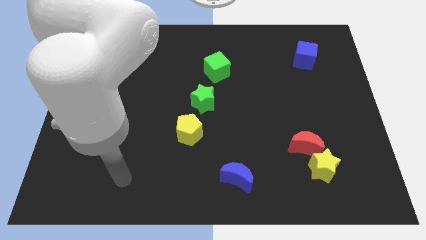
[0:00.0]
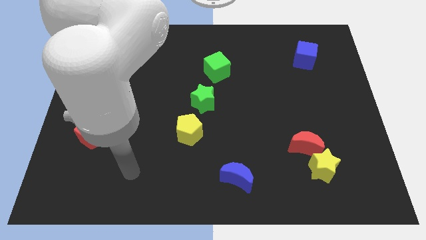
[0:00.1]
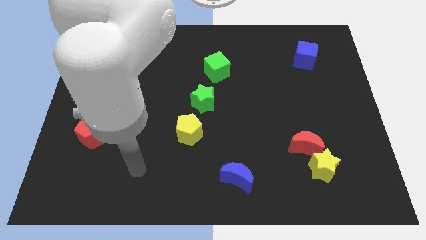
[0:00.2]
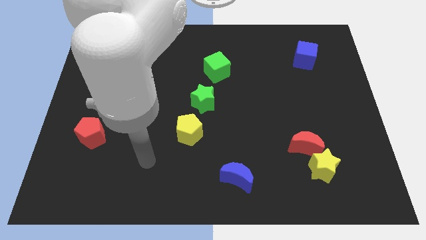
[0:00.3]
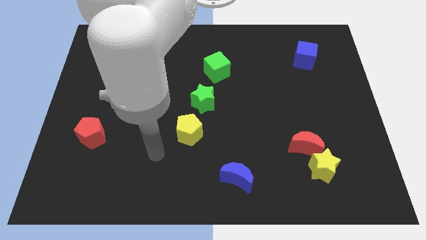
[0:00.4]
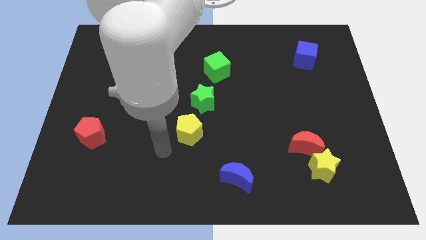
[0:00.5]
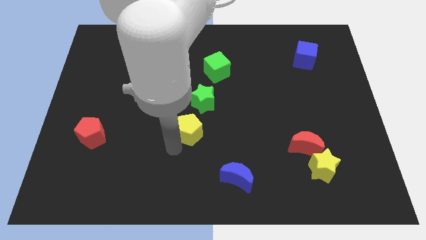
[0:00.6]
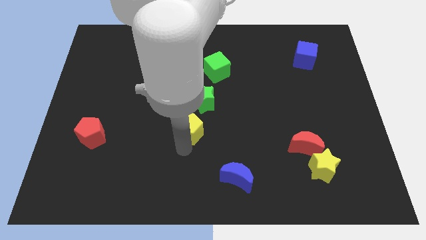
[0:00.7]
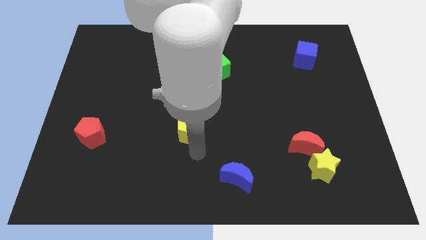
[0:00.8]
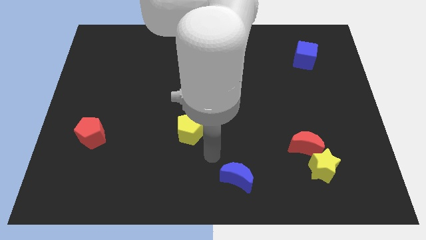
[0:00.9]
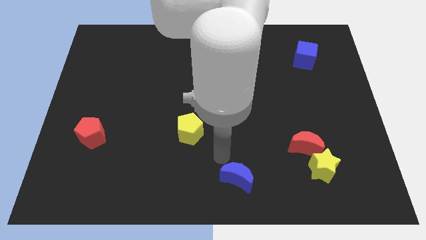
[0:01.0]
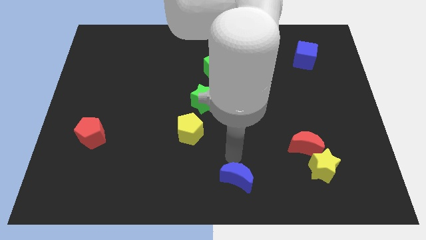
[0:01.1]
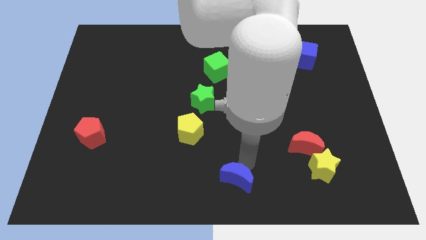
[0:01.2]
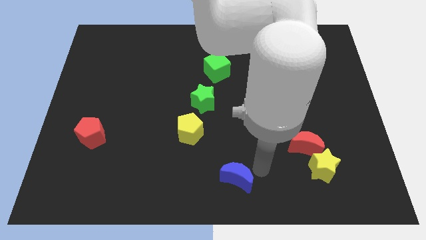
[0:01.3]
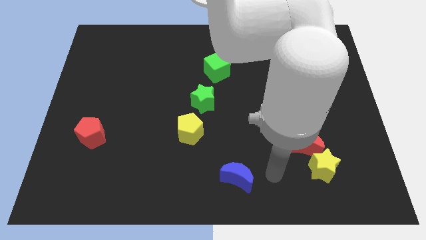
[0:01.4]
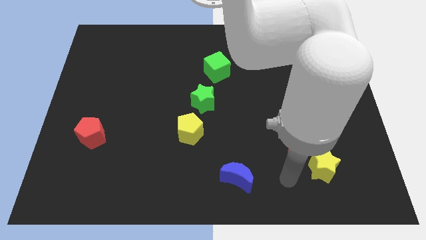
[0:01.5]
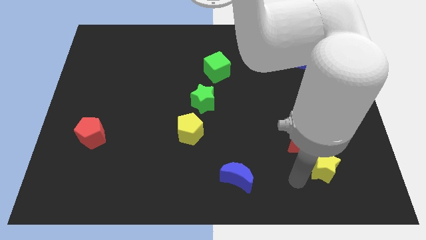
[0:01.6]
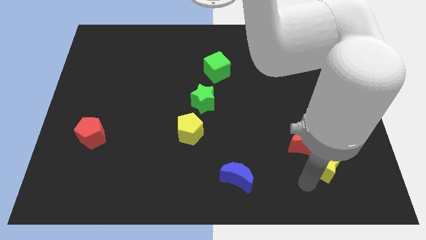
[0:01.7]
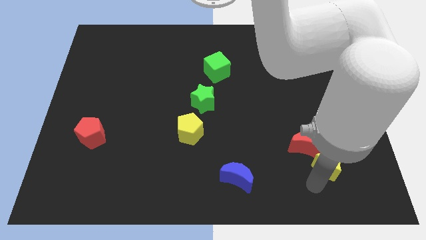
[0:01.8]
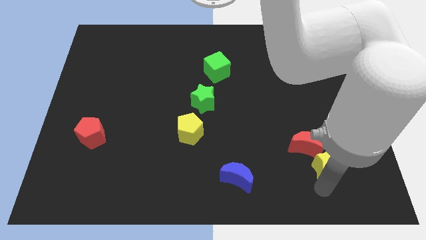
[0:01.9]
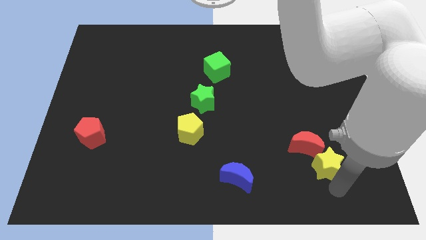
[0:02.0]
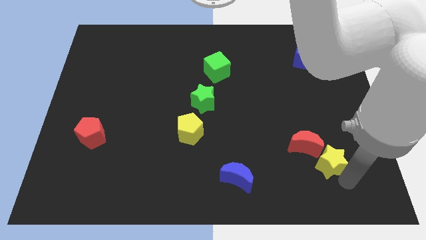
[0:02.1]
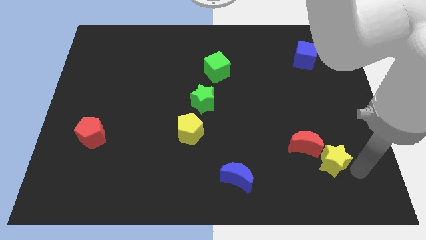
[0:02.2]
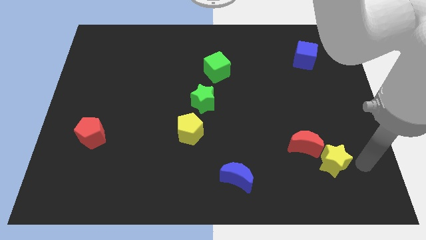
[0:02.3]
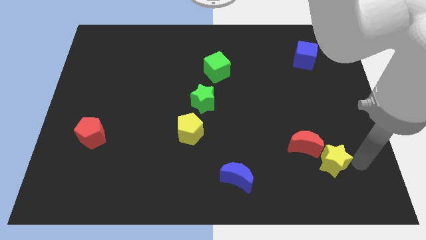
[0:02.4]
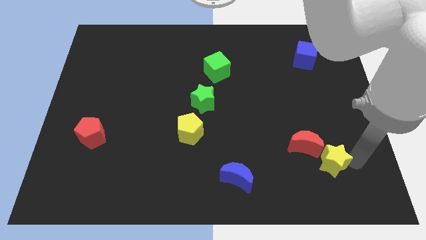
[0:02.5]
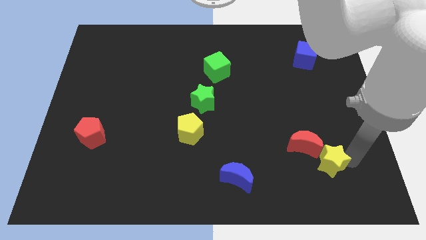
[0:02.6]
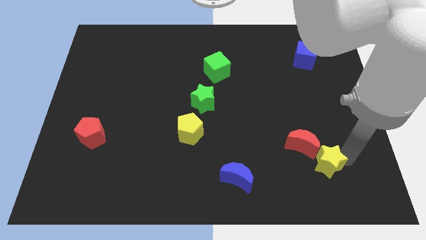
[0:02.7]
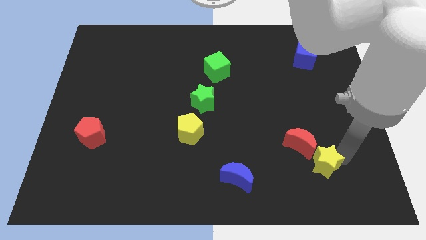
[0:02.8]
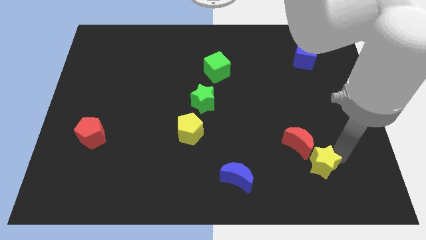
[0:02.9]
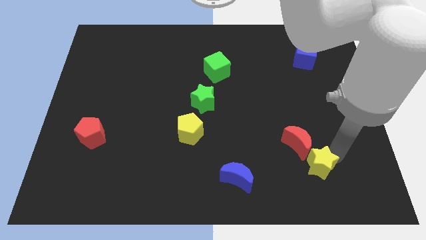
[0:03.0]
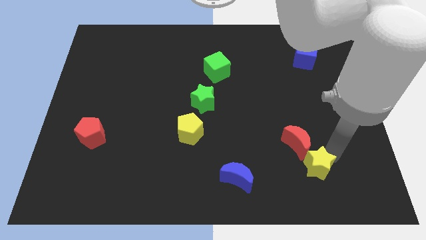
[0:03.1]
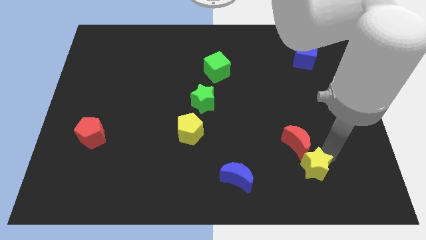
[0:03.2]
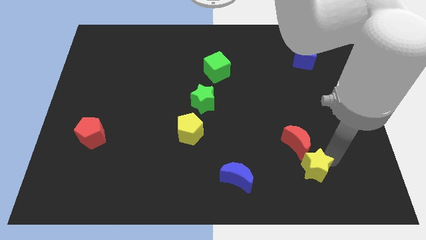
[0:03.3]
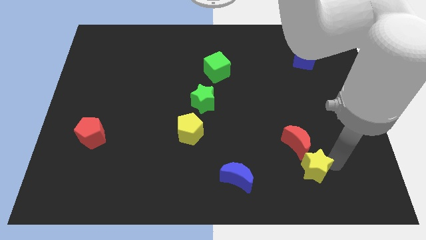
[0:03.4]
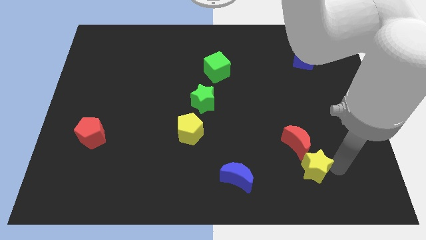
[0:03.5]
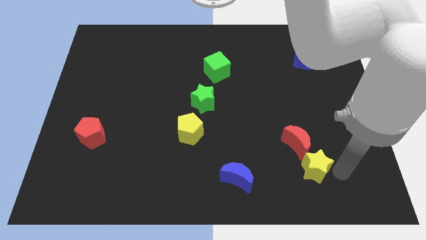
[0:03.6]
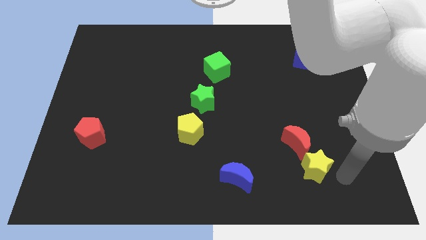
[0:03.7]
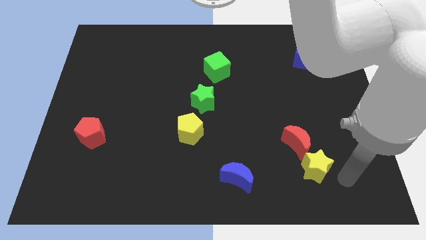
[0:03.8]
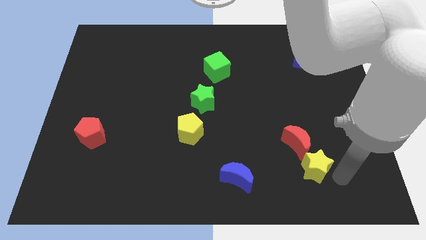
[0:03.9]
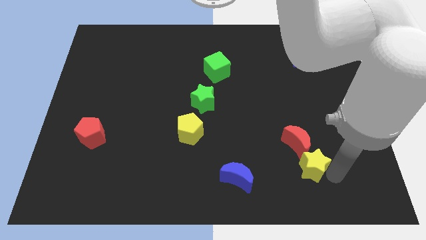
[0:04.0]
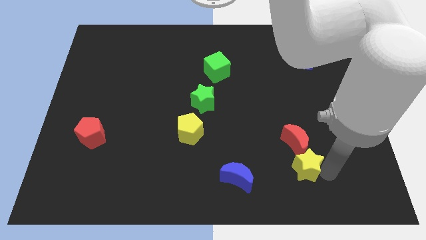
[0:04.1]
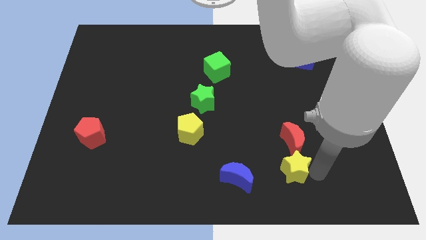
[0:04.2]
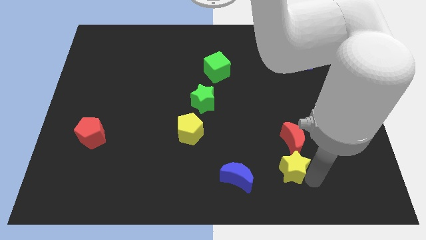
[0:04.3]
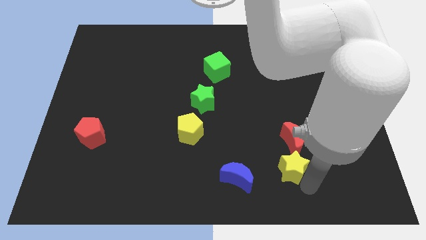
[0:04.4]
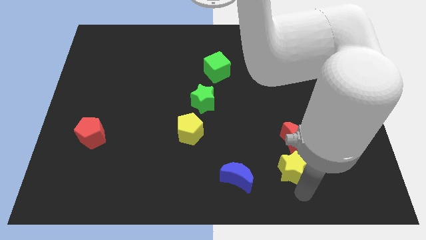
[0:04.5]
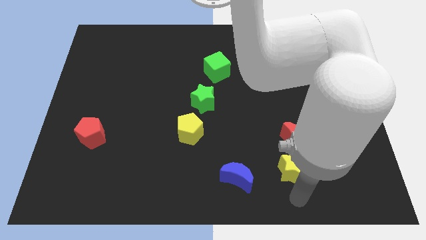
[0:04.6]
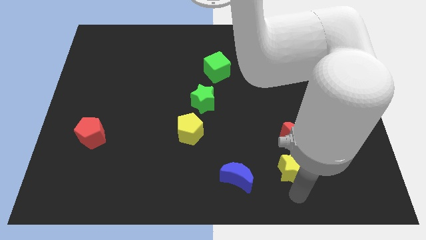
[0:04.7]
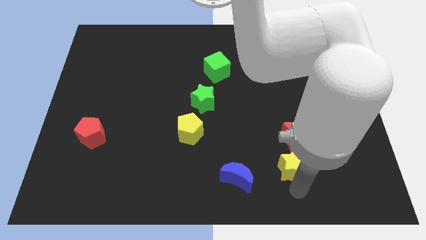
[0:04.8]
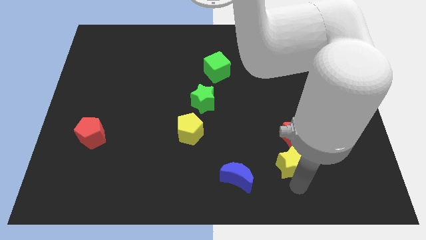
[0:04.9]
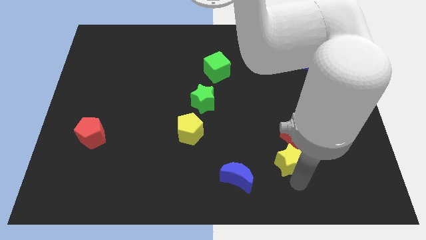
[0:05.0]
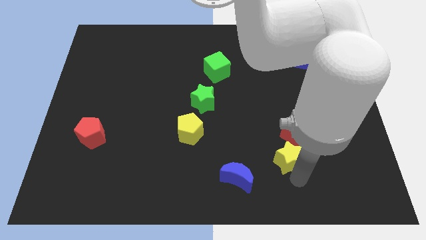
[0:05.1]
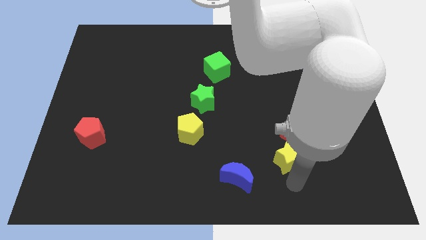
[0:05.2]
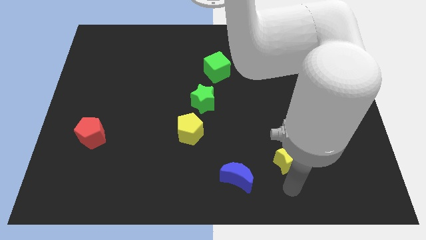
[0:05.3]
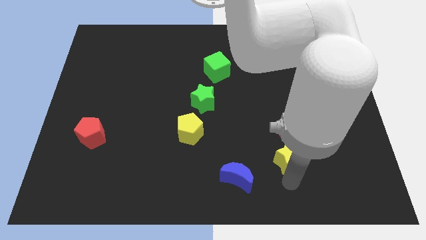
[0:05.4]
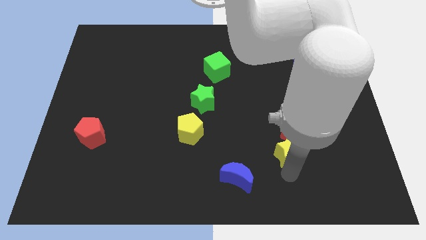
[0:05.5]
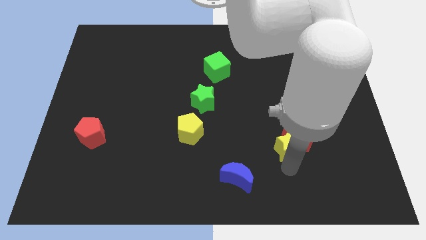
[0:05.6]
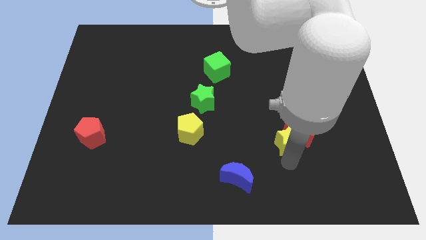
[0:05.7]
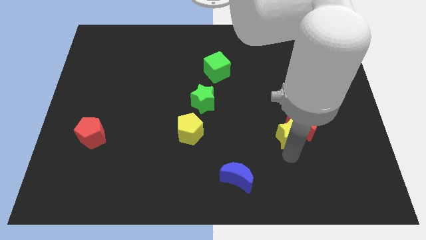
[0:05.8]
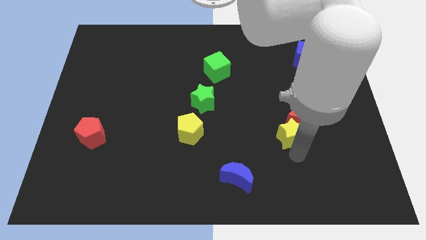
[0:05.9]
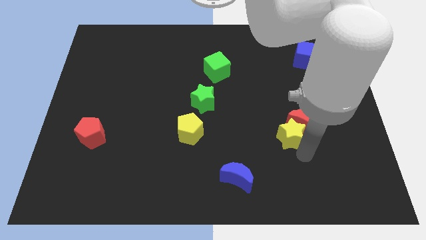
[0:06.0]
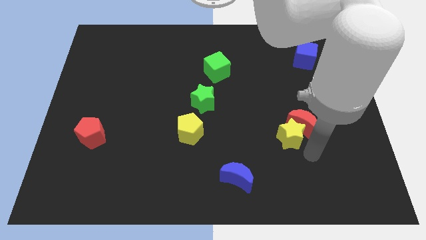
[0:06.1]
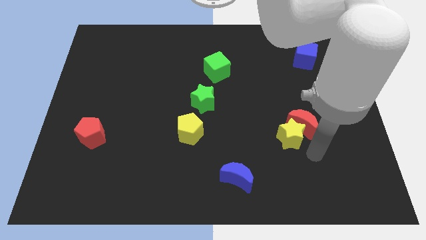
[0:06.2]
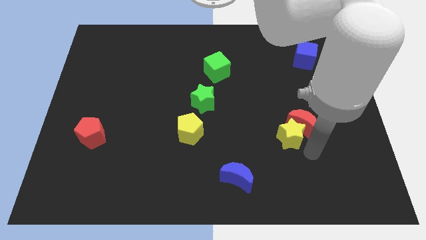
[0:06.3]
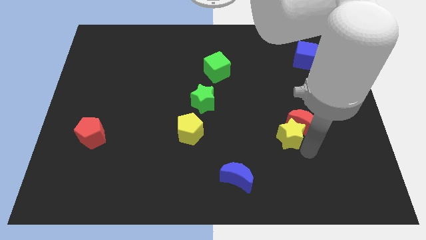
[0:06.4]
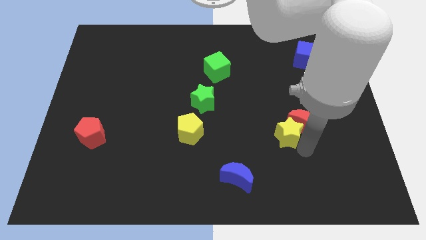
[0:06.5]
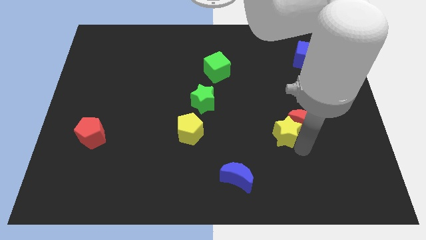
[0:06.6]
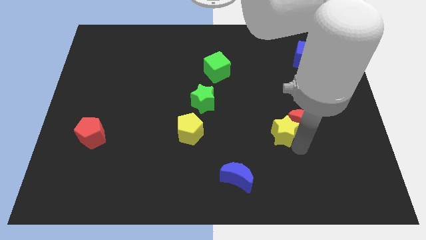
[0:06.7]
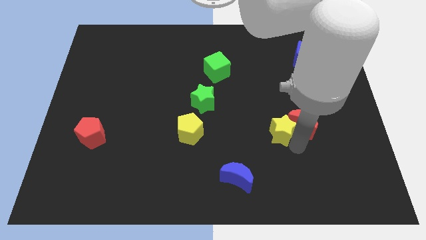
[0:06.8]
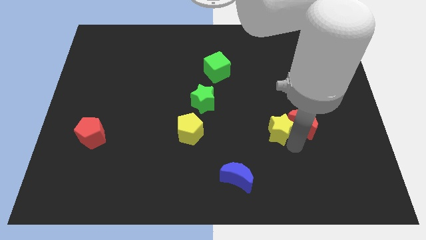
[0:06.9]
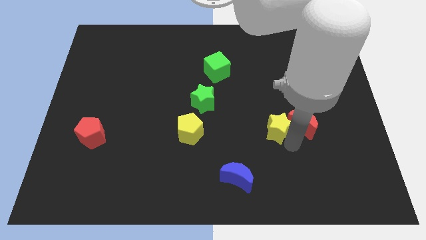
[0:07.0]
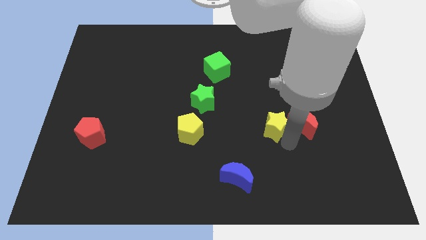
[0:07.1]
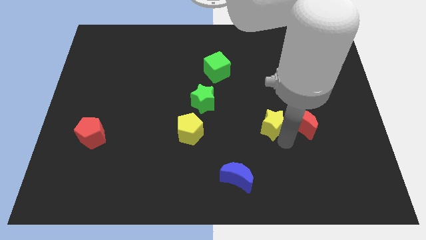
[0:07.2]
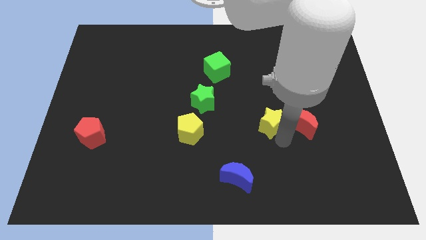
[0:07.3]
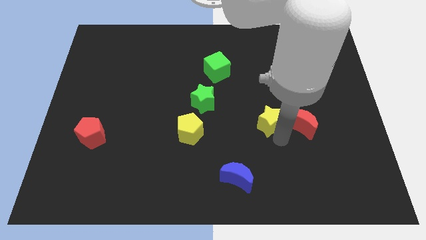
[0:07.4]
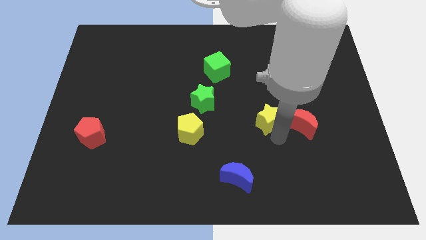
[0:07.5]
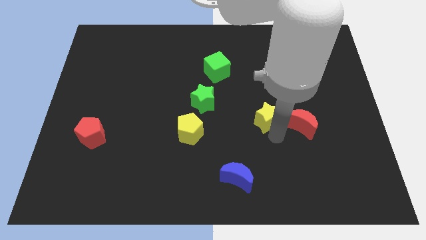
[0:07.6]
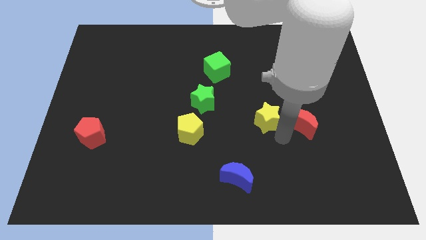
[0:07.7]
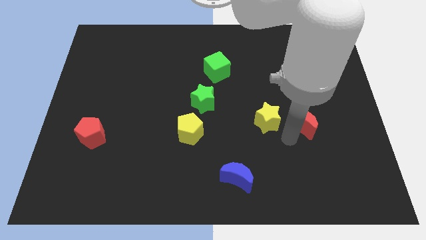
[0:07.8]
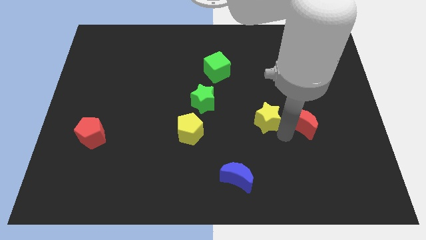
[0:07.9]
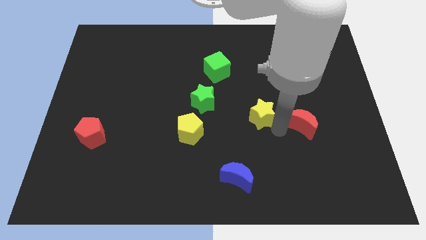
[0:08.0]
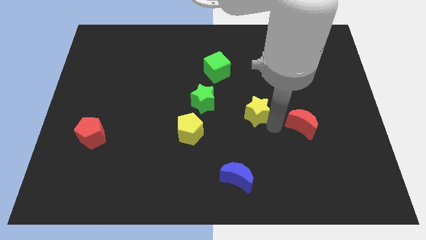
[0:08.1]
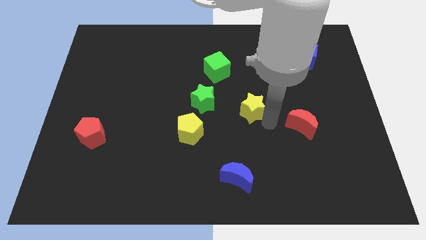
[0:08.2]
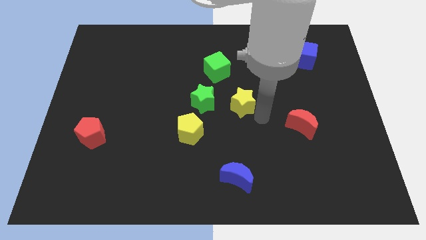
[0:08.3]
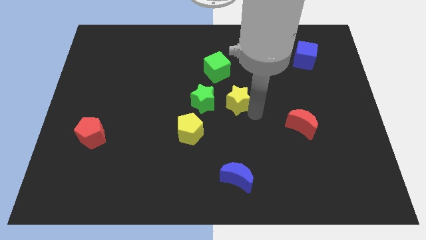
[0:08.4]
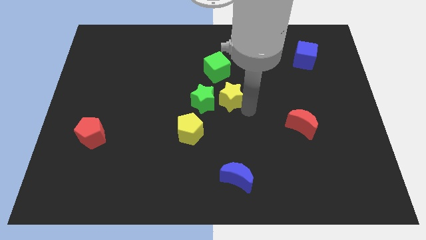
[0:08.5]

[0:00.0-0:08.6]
put the yellow star to the top right side of the green star
